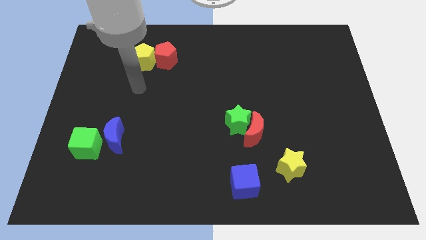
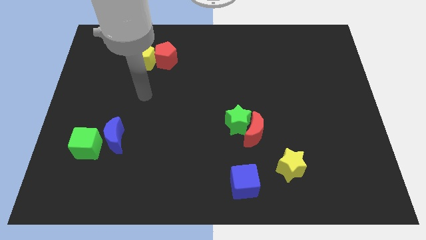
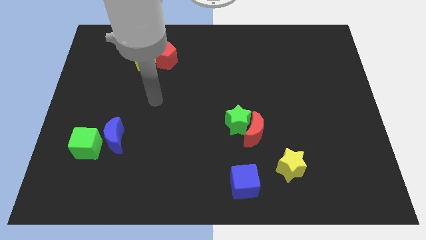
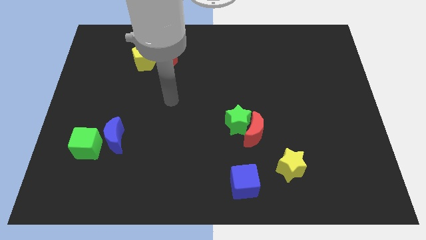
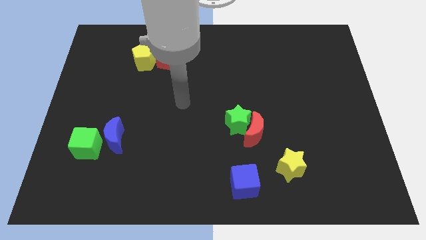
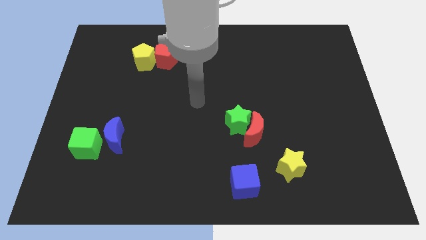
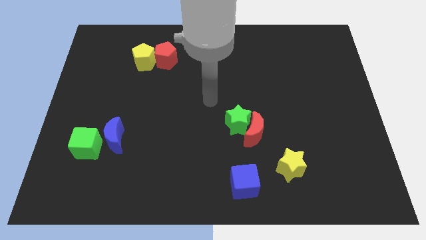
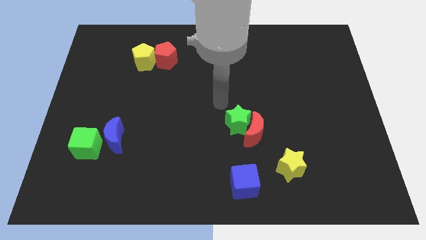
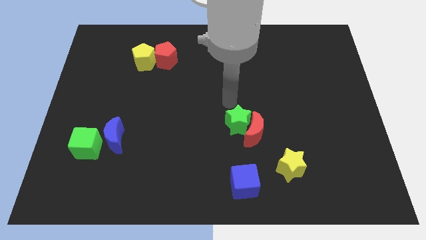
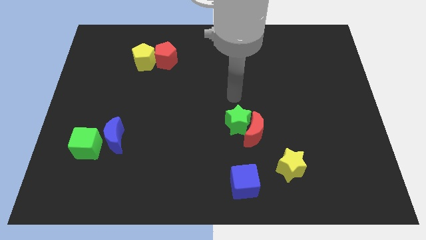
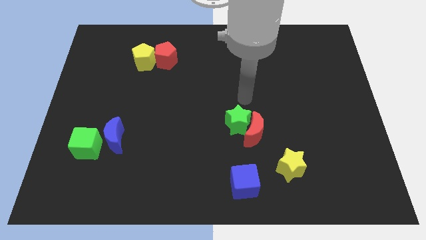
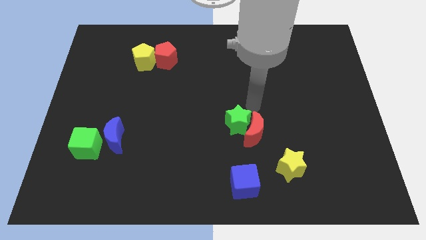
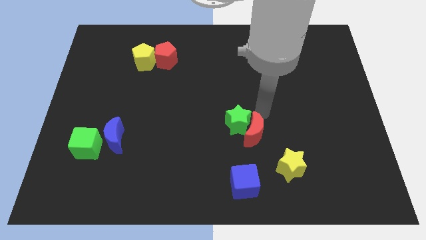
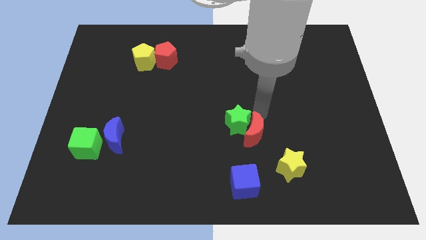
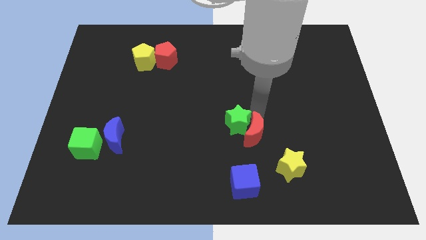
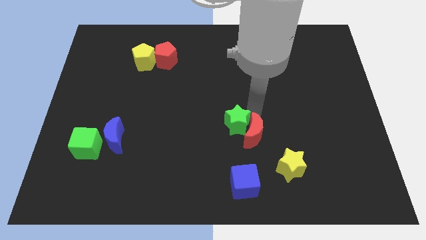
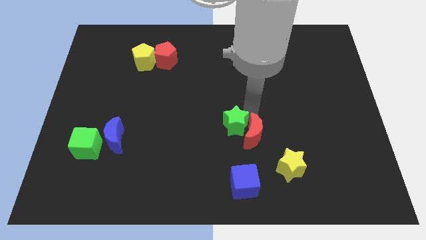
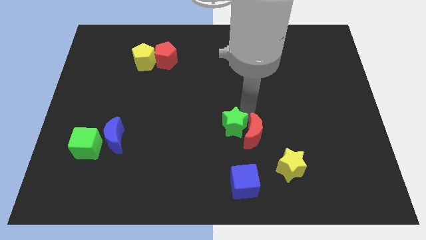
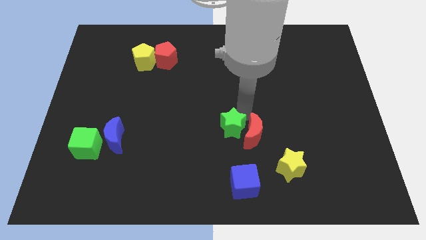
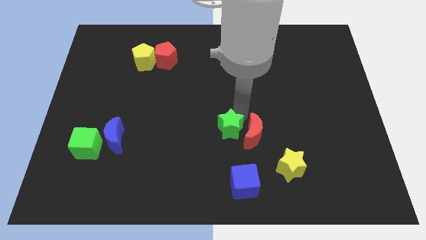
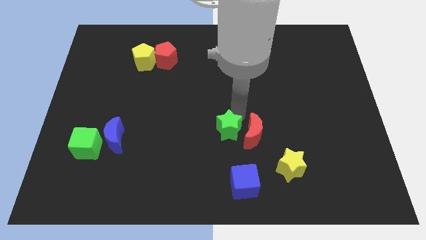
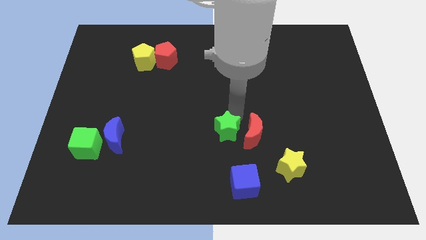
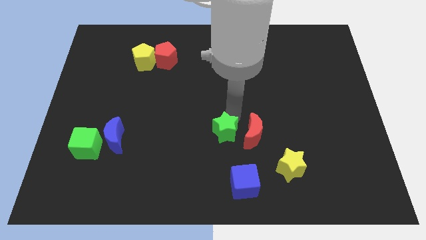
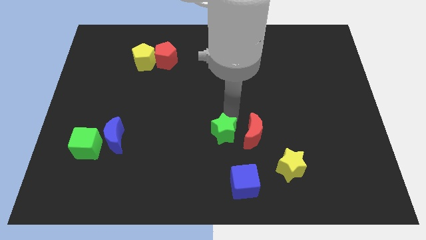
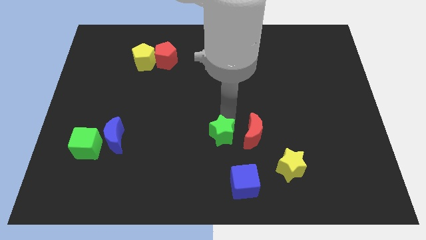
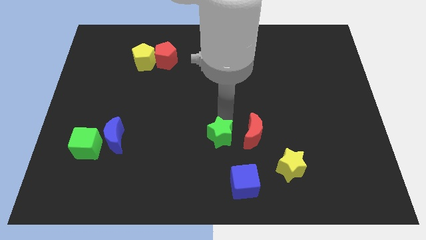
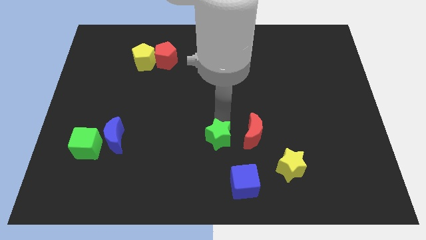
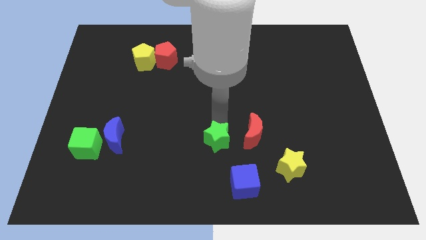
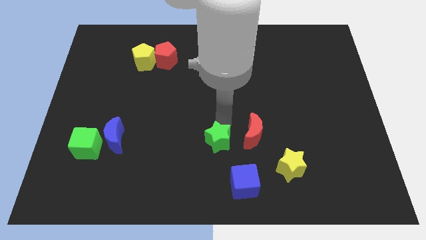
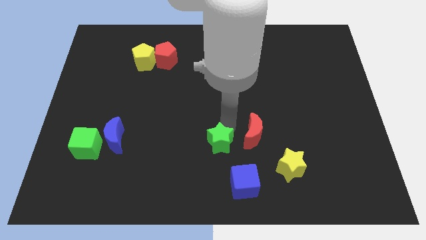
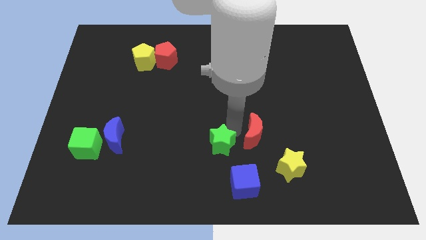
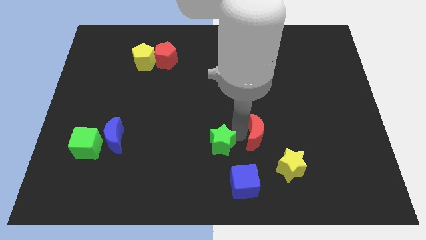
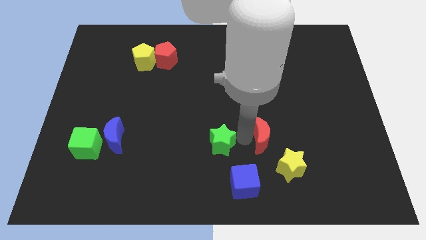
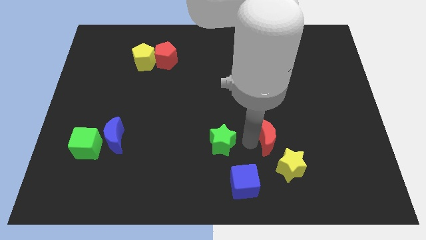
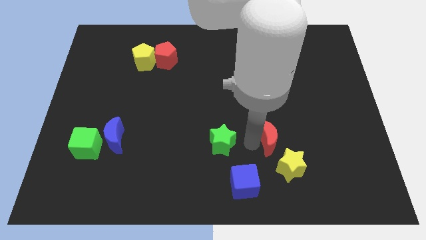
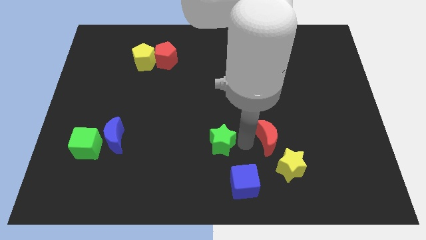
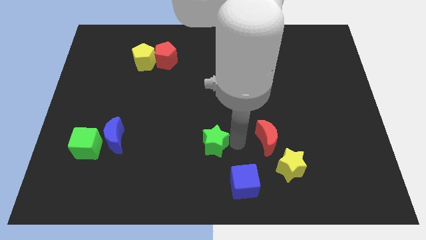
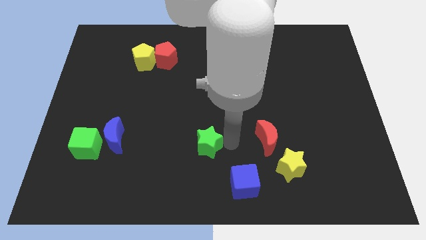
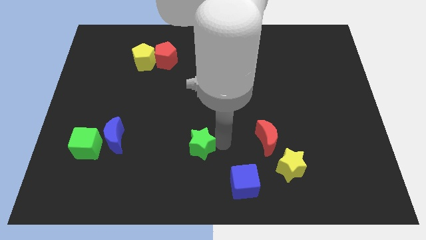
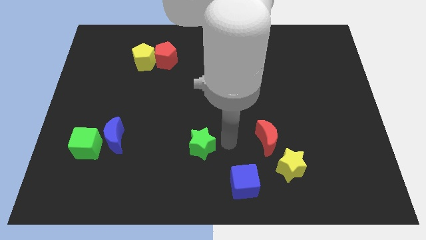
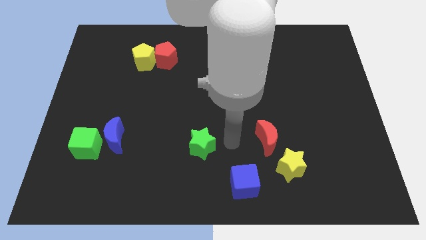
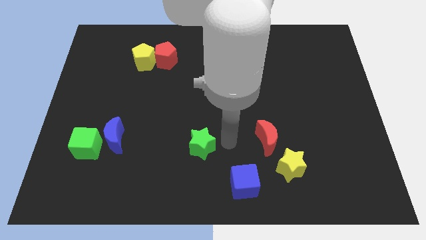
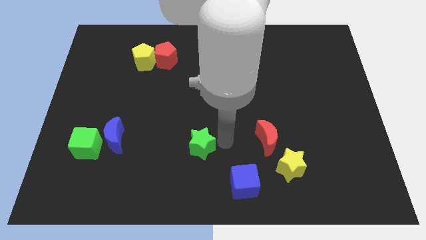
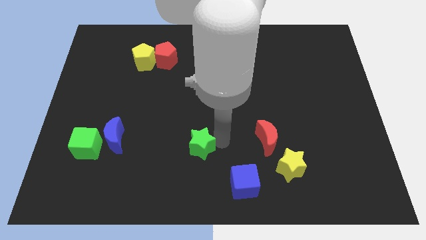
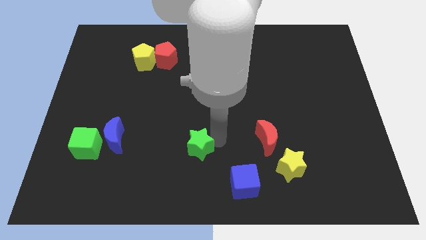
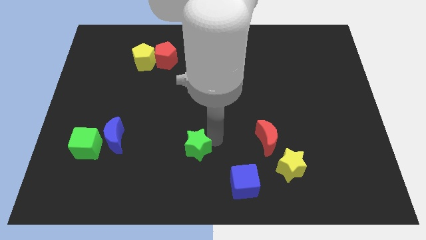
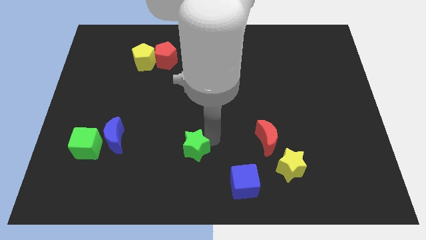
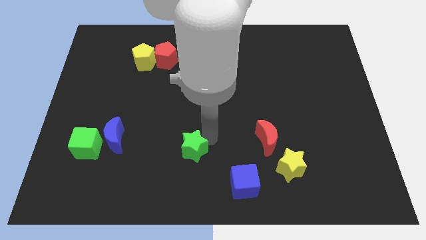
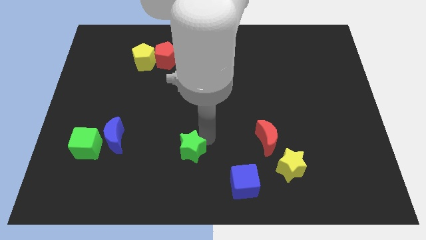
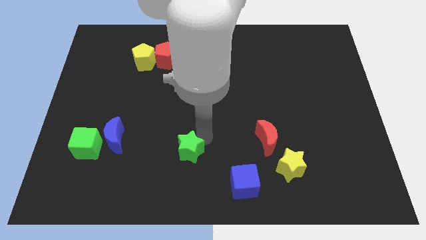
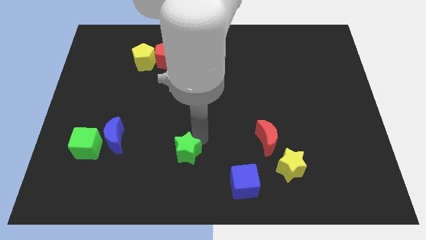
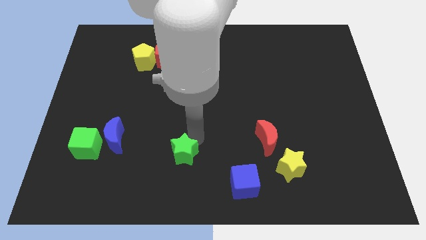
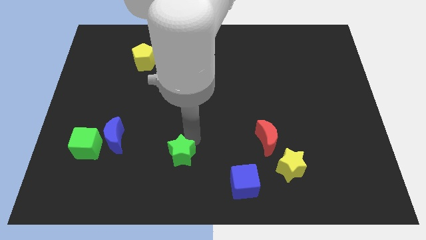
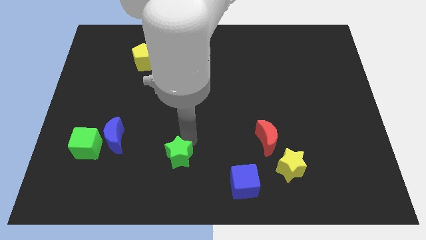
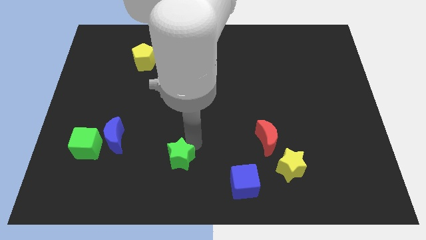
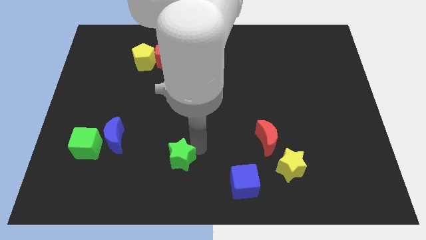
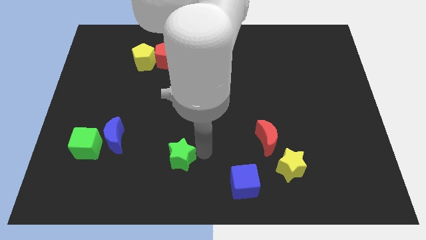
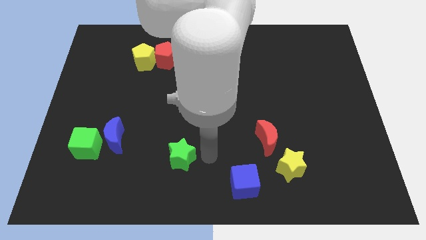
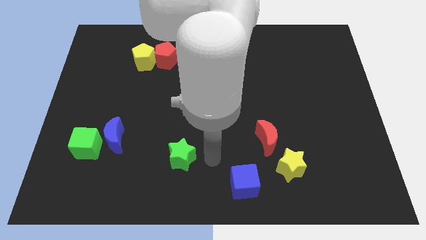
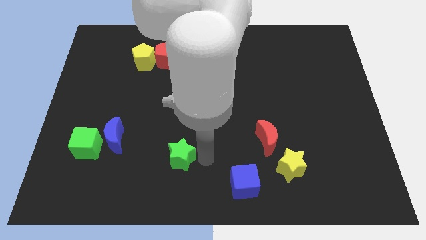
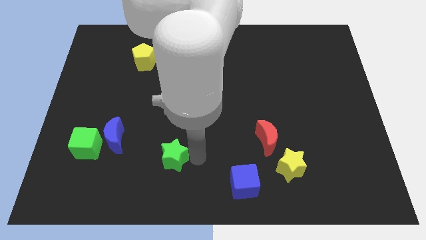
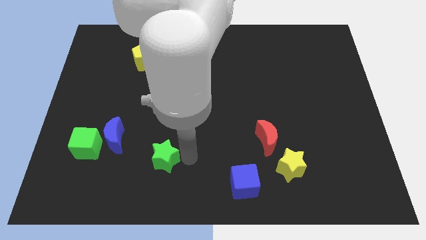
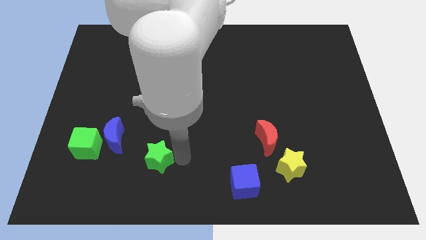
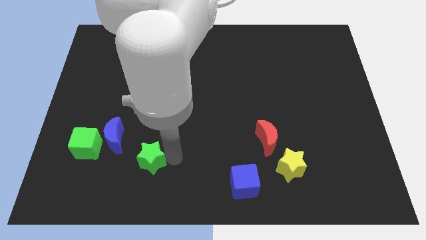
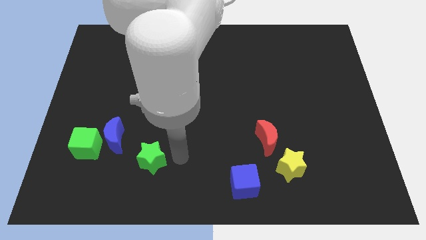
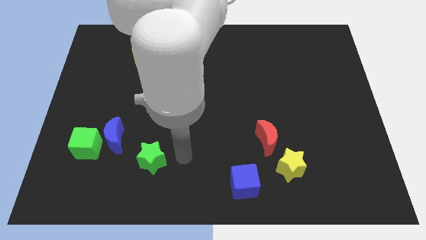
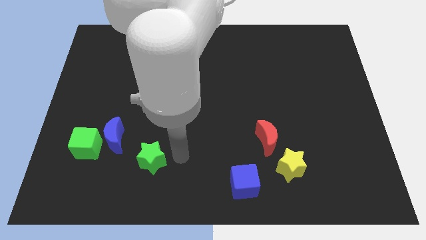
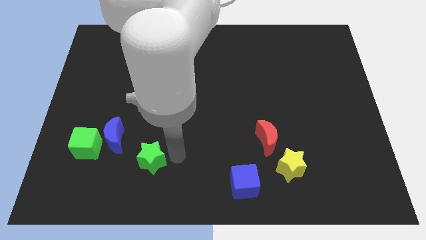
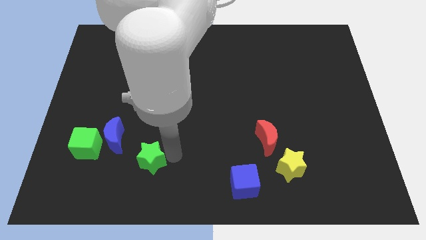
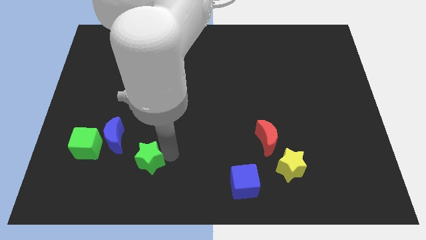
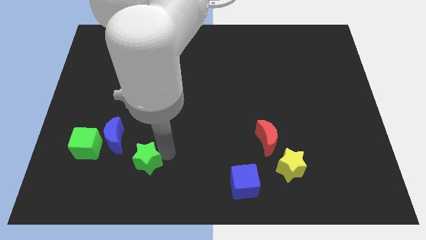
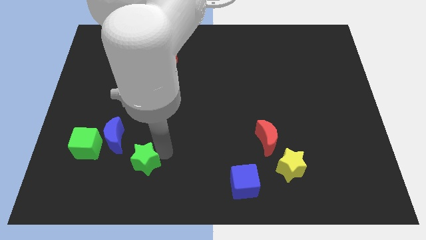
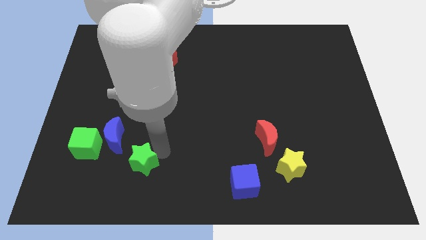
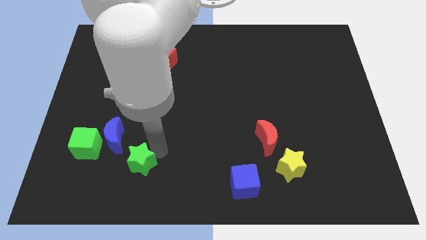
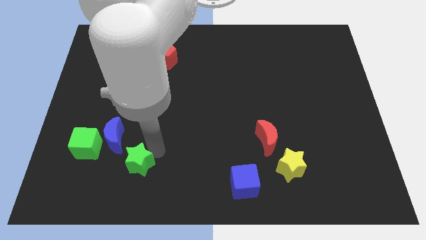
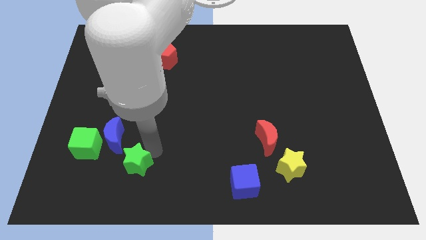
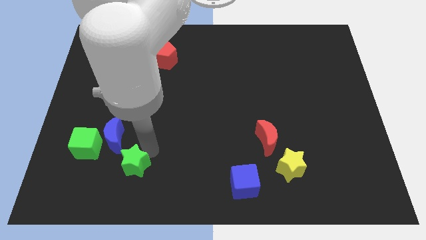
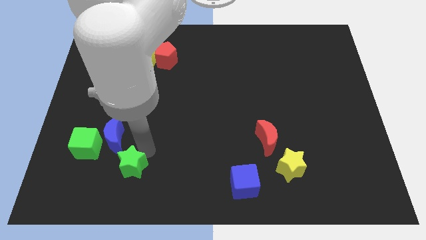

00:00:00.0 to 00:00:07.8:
put the green star to the bottom right side of the green cube
